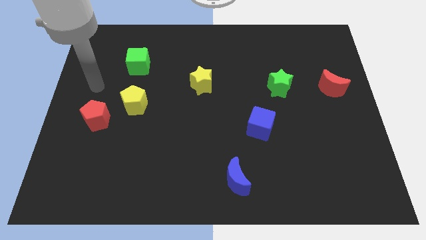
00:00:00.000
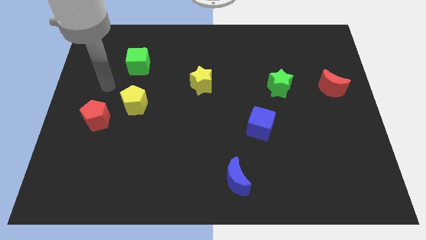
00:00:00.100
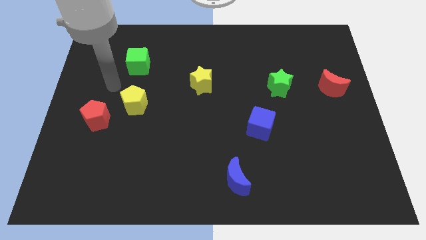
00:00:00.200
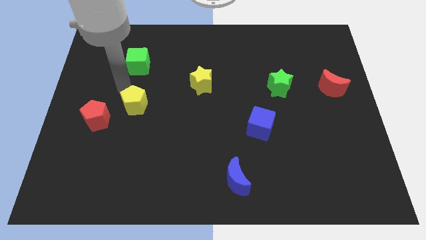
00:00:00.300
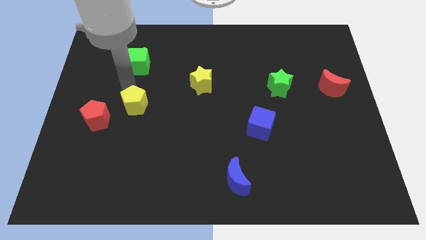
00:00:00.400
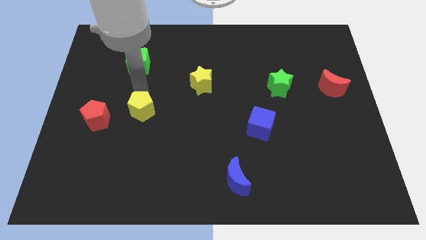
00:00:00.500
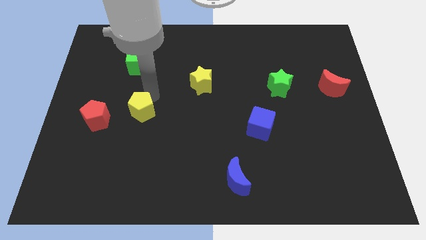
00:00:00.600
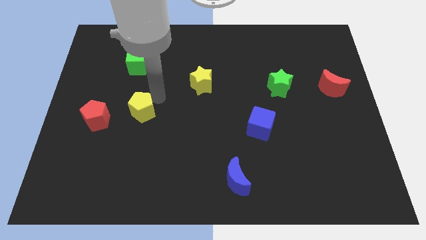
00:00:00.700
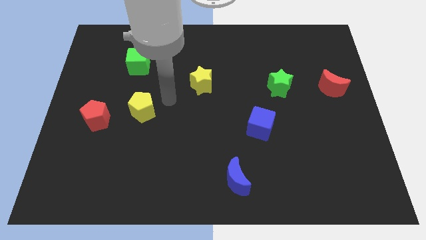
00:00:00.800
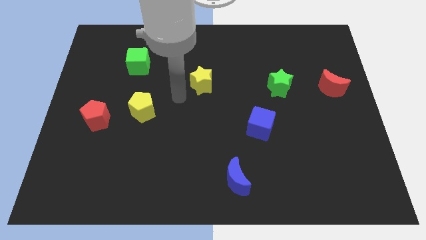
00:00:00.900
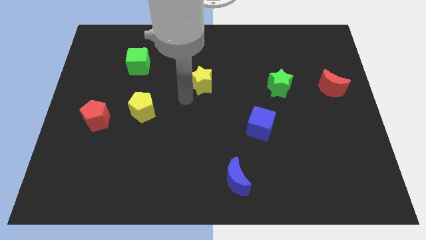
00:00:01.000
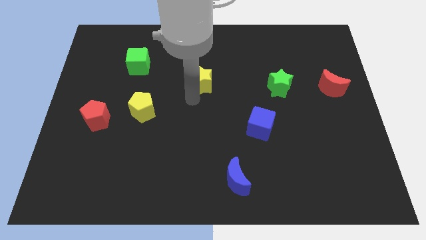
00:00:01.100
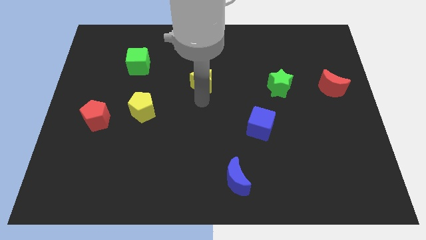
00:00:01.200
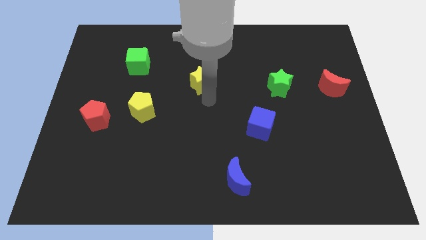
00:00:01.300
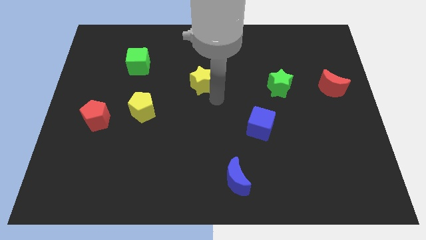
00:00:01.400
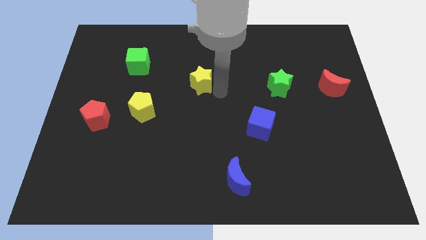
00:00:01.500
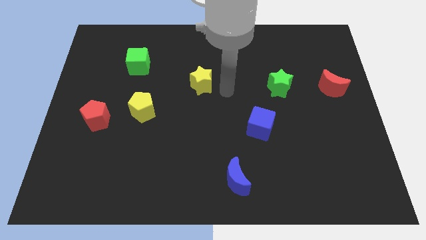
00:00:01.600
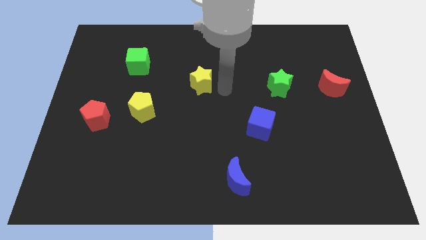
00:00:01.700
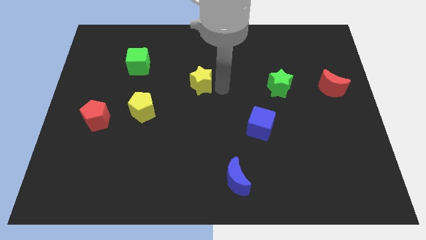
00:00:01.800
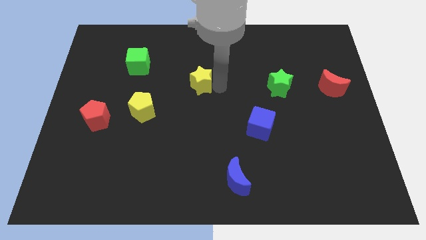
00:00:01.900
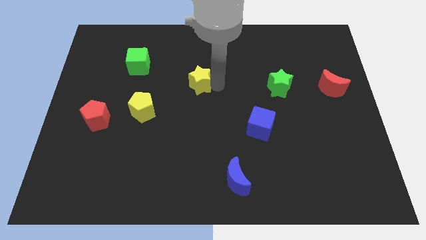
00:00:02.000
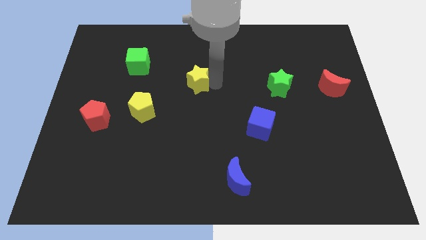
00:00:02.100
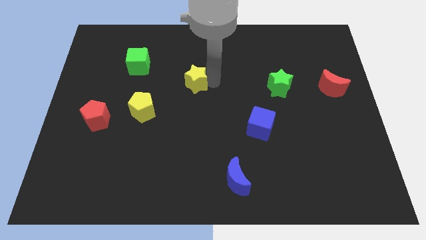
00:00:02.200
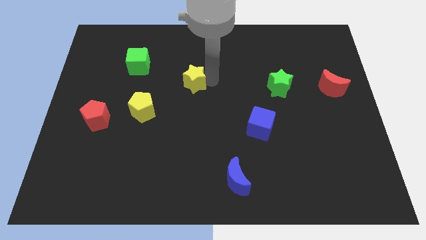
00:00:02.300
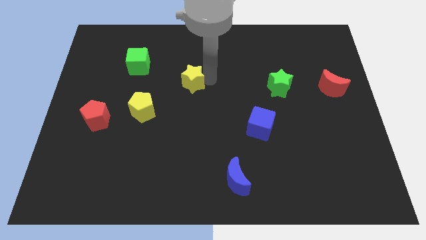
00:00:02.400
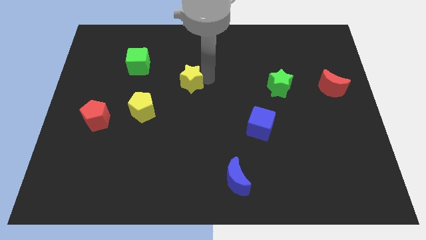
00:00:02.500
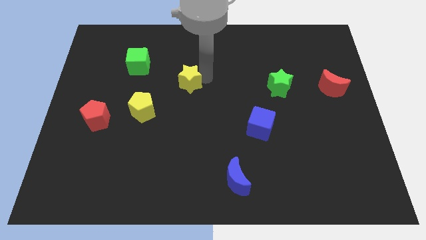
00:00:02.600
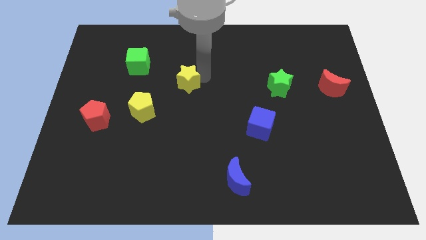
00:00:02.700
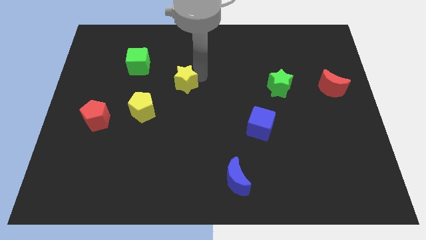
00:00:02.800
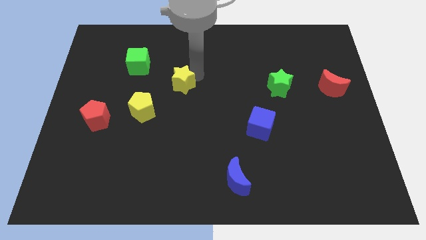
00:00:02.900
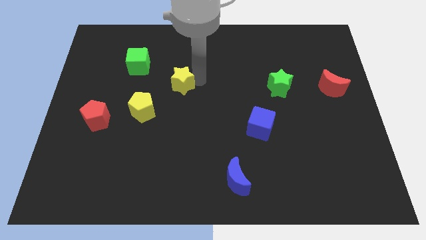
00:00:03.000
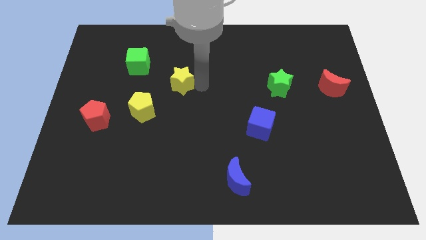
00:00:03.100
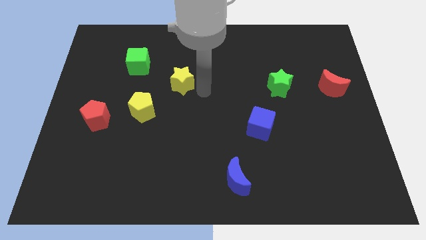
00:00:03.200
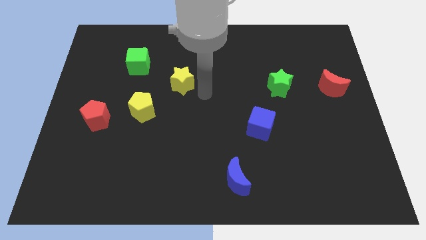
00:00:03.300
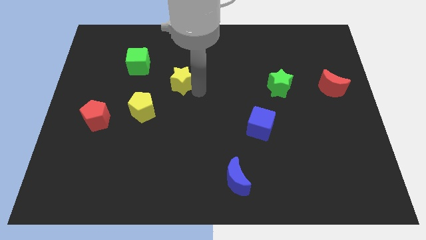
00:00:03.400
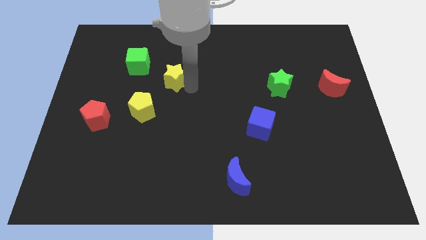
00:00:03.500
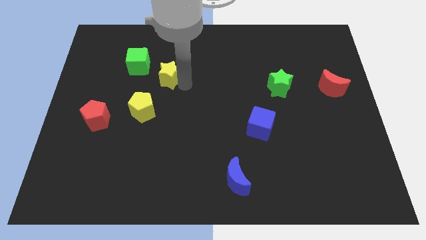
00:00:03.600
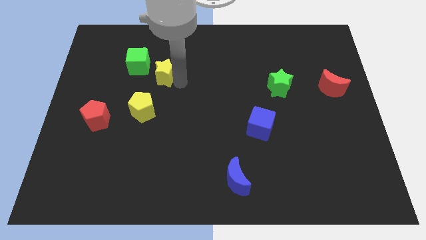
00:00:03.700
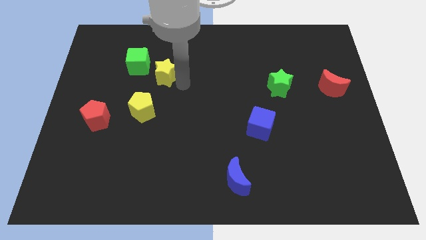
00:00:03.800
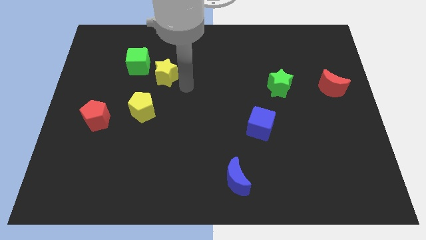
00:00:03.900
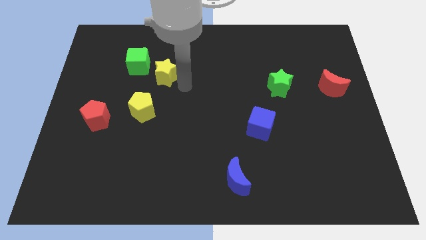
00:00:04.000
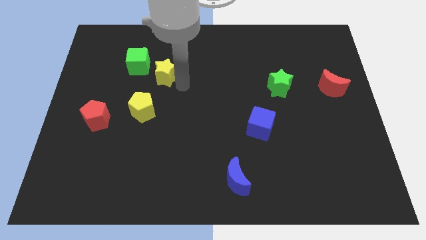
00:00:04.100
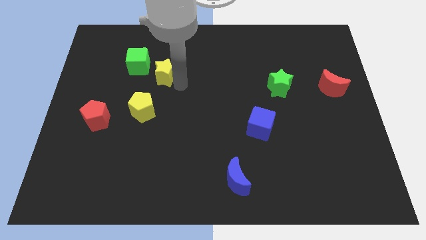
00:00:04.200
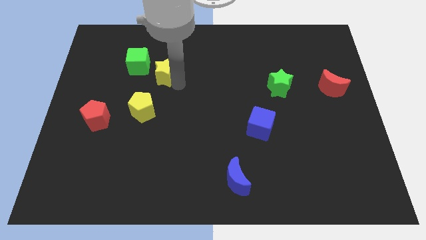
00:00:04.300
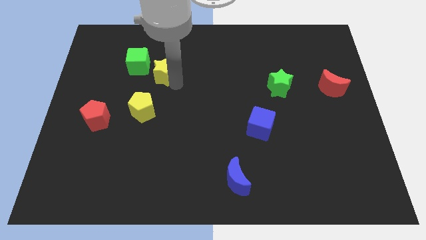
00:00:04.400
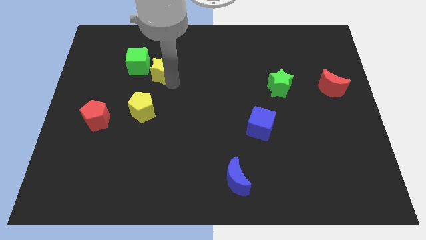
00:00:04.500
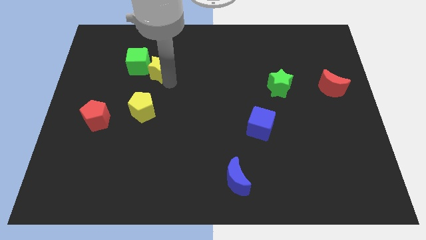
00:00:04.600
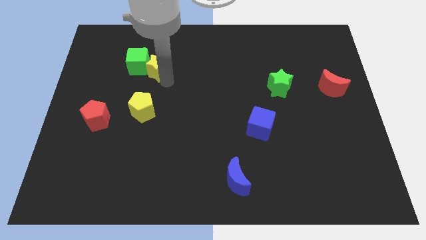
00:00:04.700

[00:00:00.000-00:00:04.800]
slide the yellow star close to the green cube

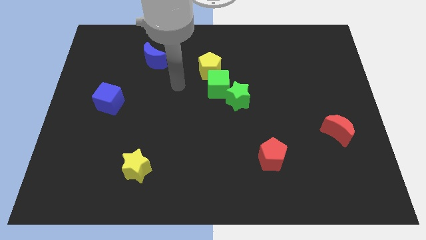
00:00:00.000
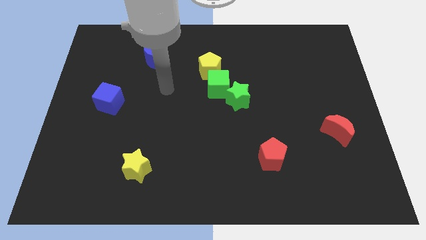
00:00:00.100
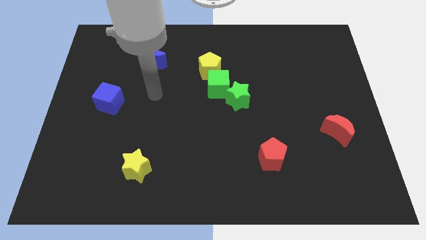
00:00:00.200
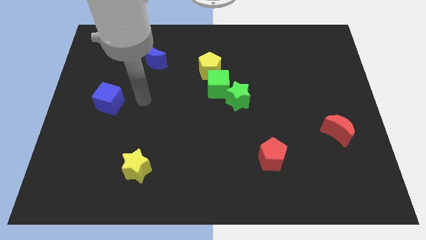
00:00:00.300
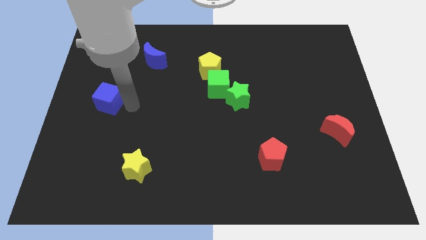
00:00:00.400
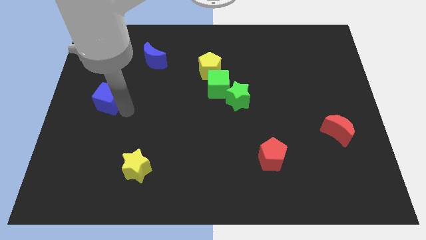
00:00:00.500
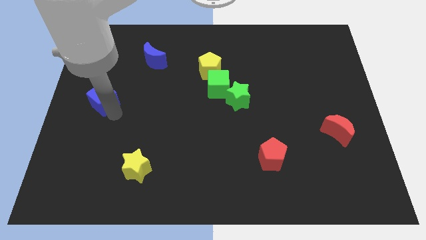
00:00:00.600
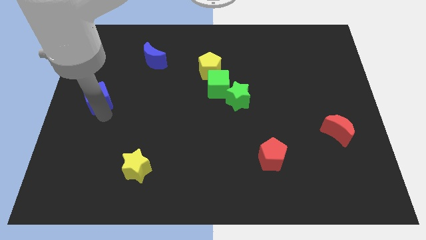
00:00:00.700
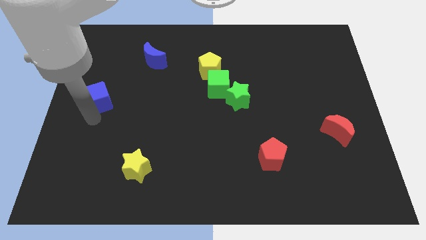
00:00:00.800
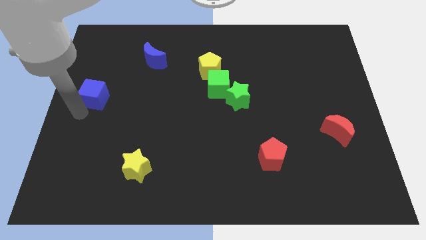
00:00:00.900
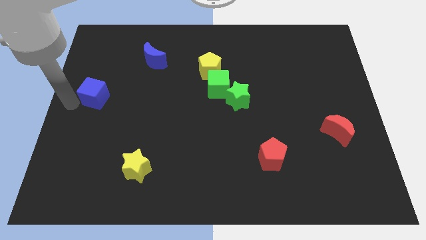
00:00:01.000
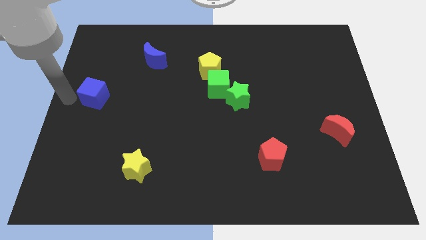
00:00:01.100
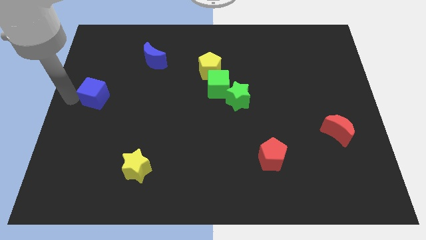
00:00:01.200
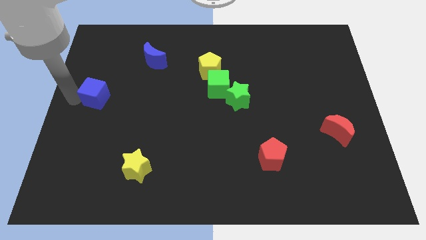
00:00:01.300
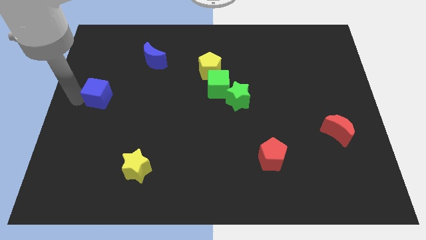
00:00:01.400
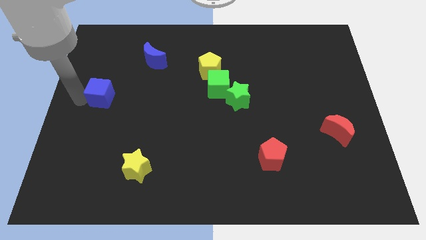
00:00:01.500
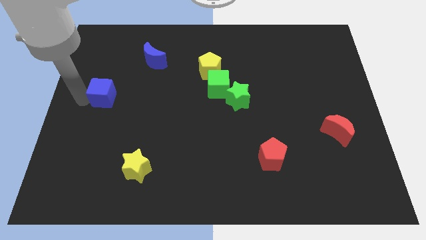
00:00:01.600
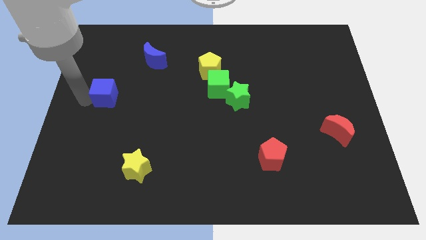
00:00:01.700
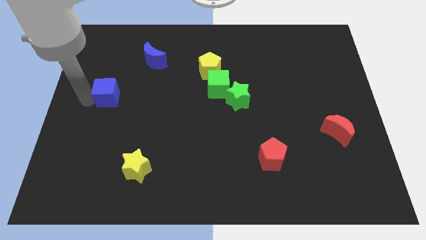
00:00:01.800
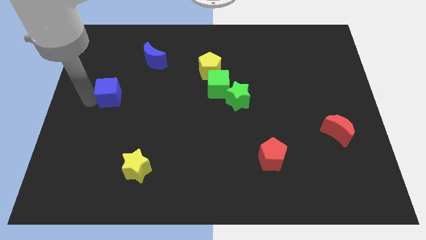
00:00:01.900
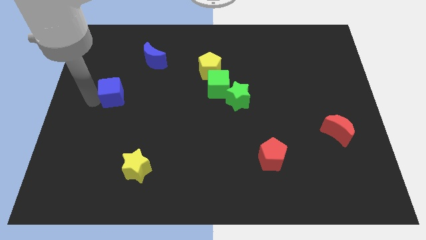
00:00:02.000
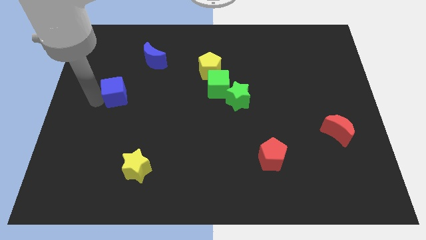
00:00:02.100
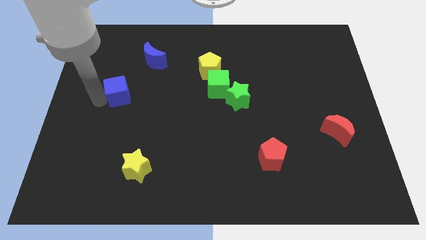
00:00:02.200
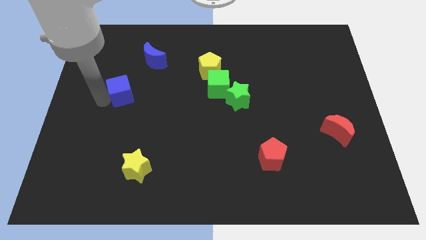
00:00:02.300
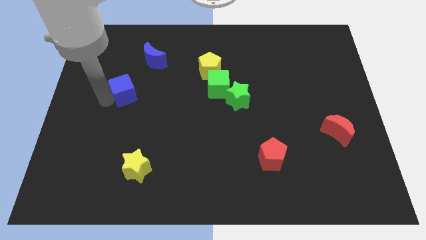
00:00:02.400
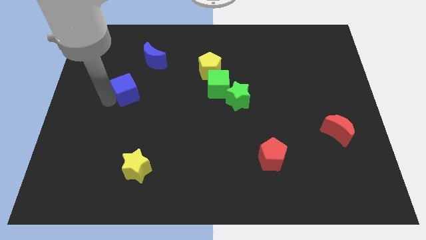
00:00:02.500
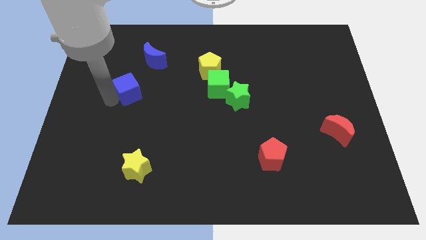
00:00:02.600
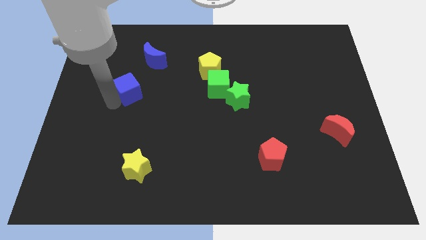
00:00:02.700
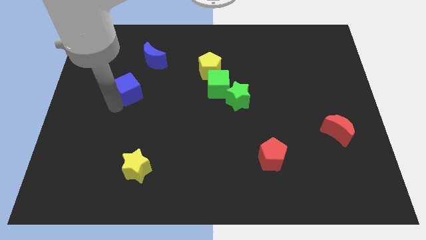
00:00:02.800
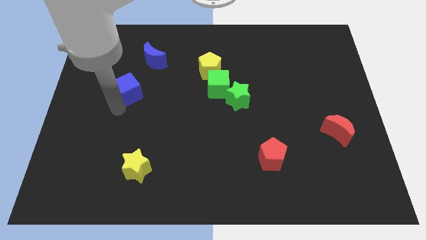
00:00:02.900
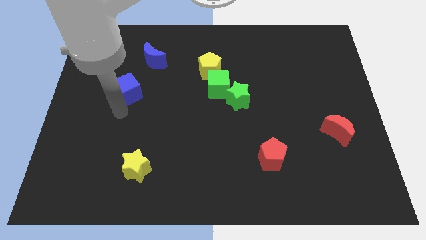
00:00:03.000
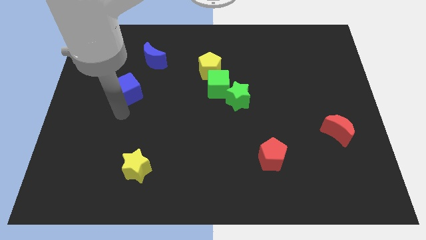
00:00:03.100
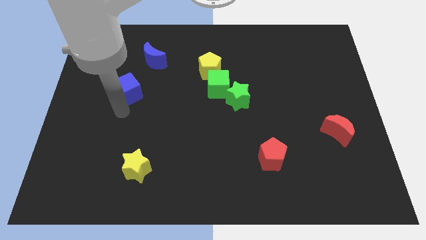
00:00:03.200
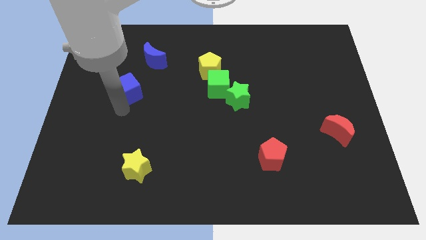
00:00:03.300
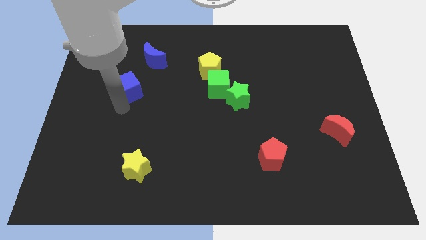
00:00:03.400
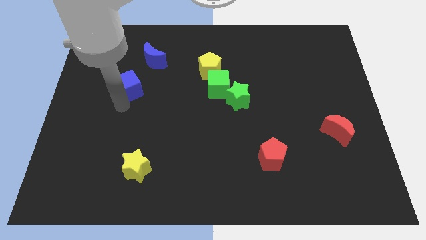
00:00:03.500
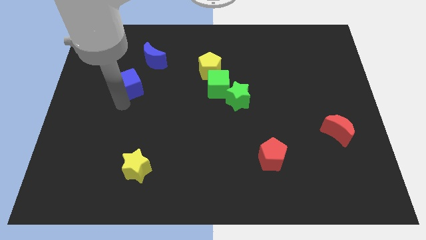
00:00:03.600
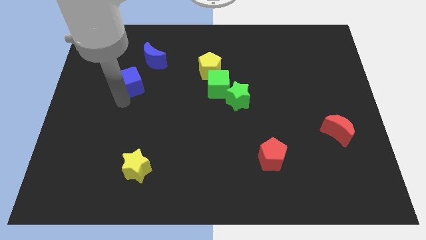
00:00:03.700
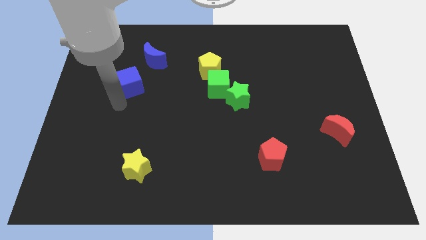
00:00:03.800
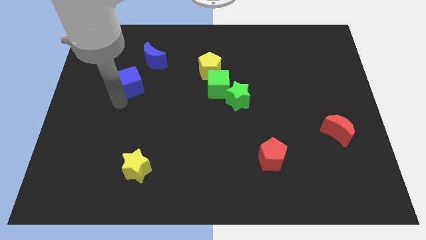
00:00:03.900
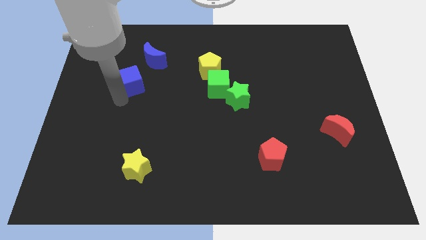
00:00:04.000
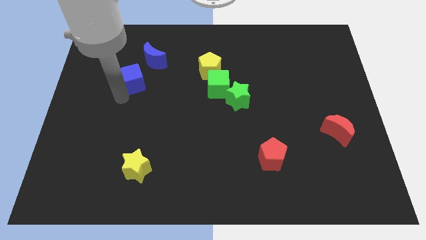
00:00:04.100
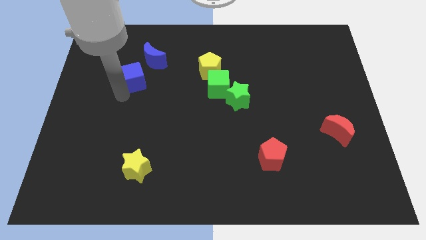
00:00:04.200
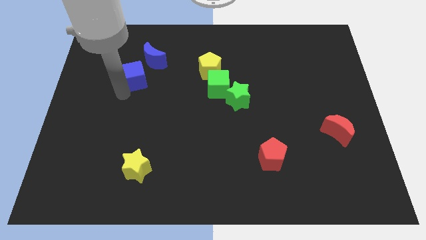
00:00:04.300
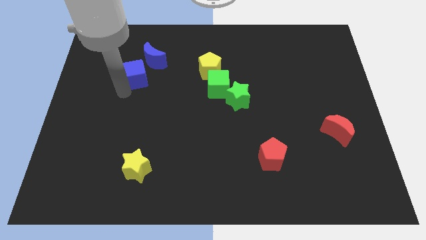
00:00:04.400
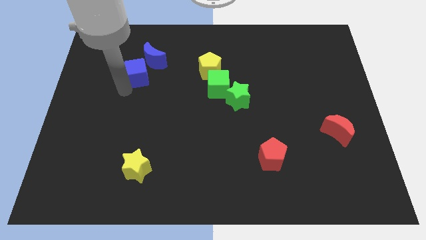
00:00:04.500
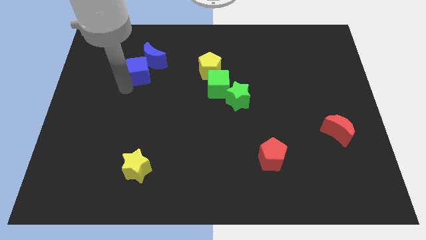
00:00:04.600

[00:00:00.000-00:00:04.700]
push the blue cube to the blue moon
